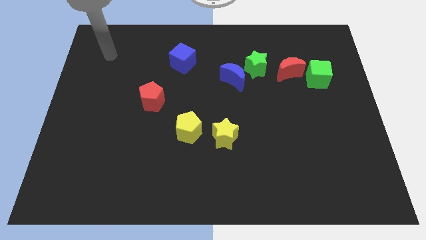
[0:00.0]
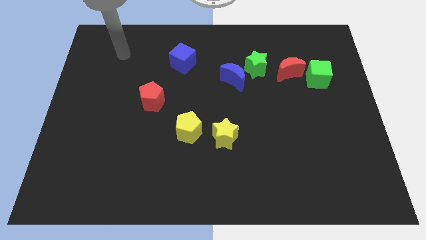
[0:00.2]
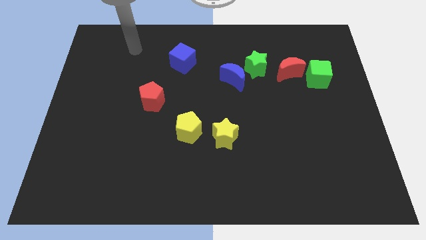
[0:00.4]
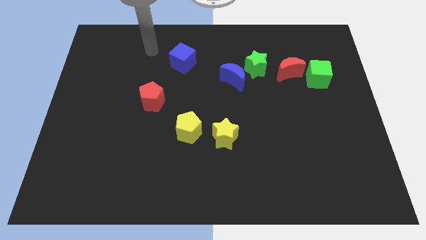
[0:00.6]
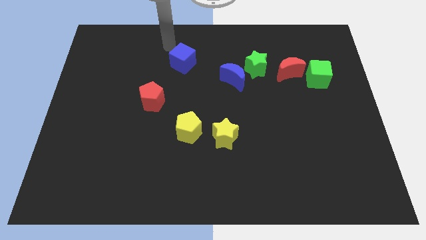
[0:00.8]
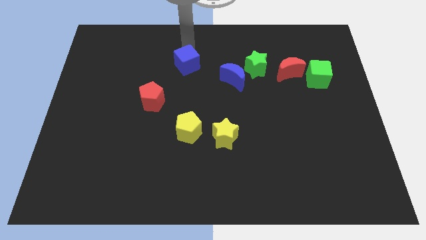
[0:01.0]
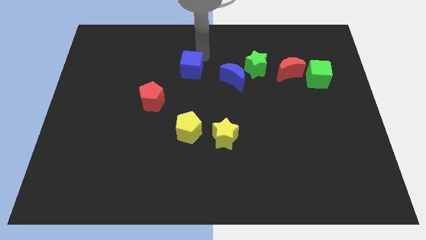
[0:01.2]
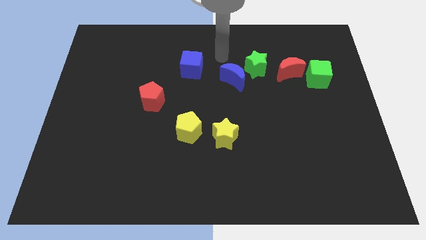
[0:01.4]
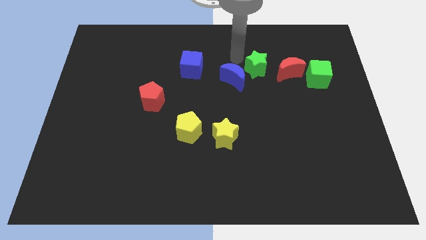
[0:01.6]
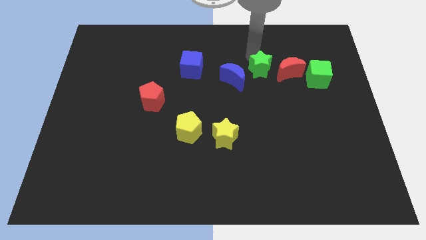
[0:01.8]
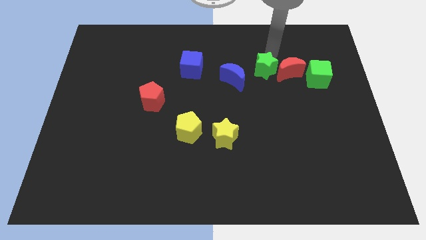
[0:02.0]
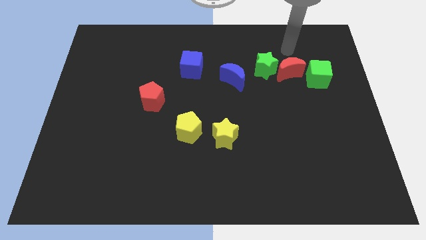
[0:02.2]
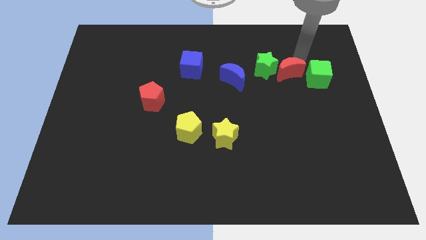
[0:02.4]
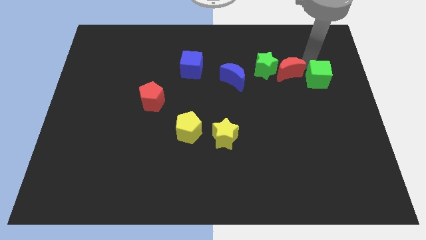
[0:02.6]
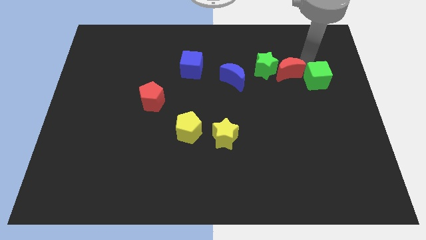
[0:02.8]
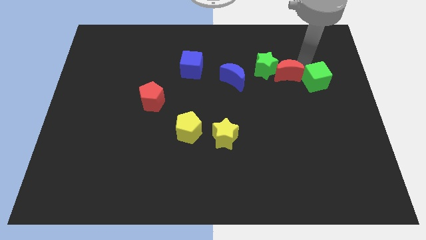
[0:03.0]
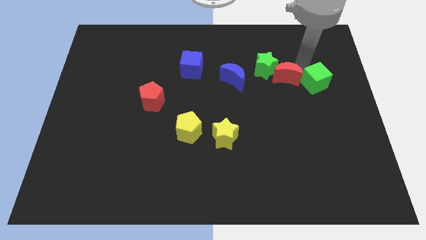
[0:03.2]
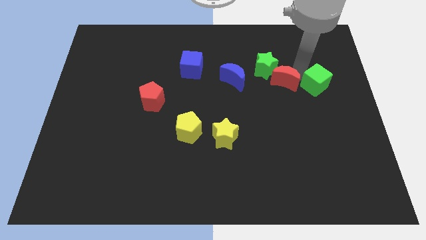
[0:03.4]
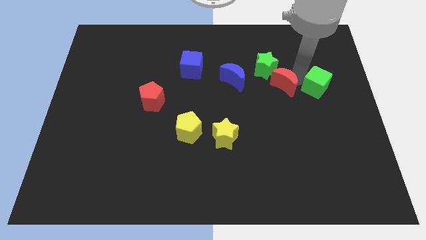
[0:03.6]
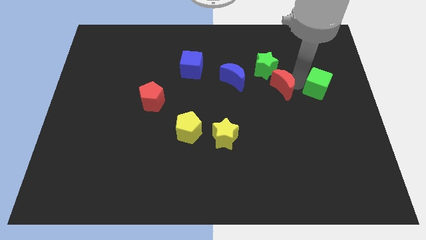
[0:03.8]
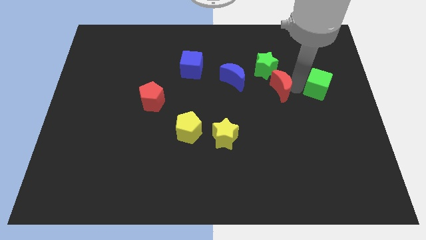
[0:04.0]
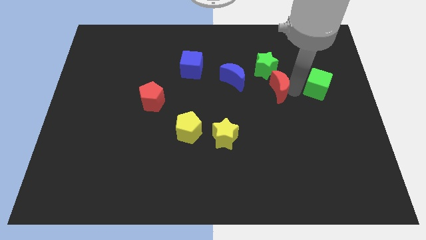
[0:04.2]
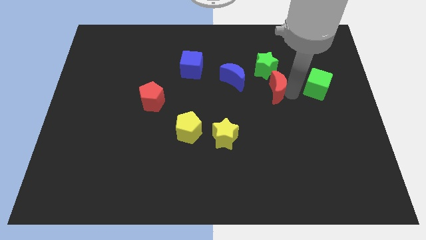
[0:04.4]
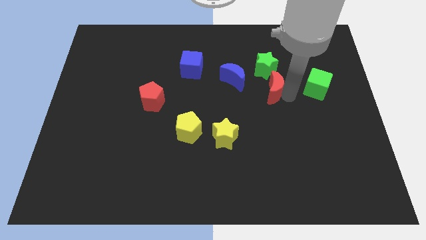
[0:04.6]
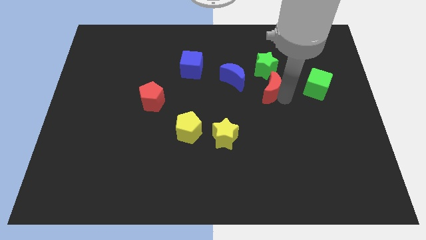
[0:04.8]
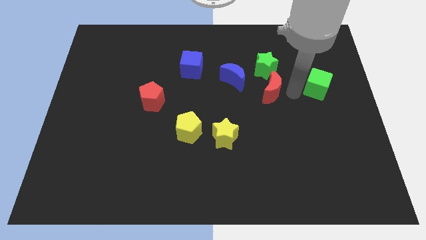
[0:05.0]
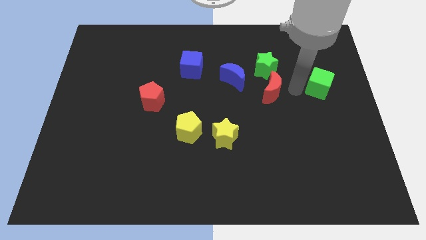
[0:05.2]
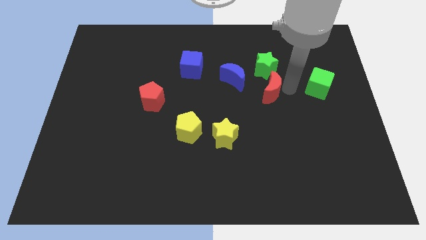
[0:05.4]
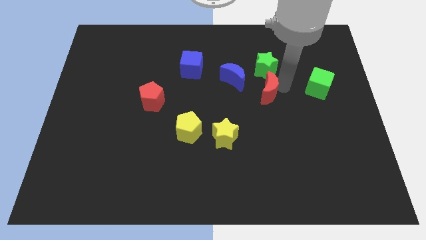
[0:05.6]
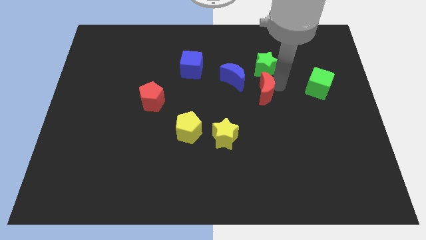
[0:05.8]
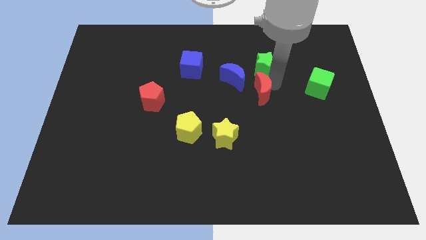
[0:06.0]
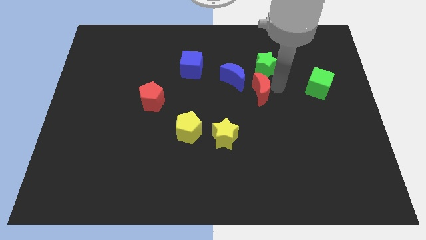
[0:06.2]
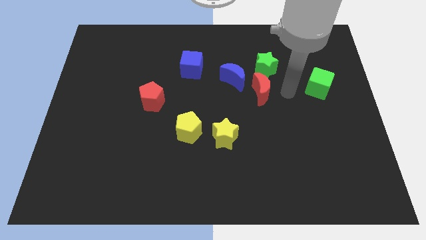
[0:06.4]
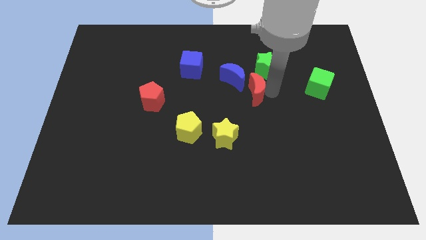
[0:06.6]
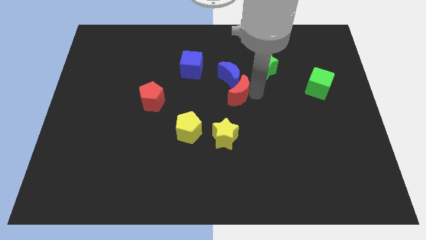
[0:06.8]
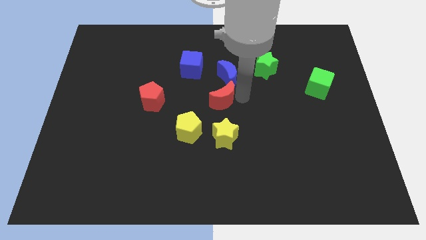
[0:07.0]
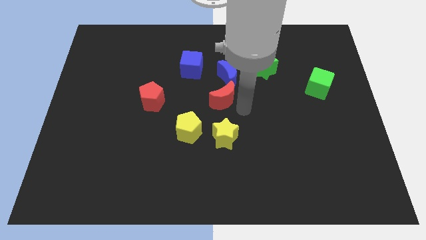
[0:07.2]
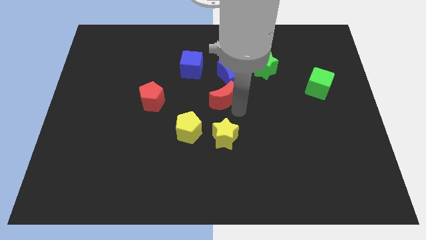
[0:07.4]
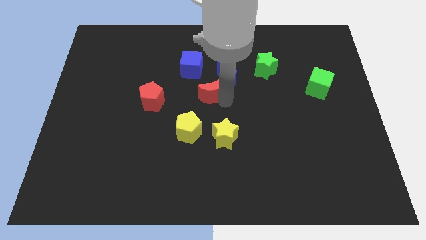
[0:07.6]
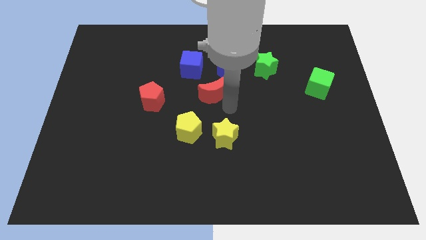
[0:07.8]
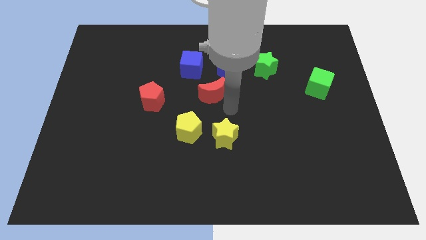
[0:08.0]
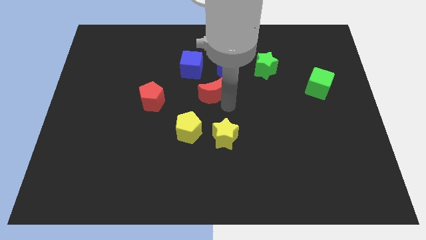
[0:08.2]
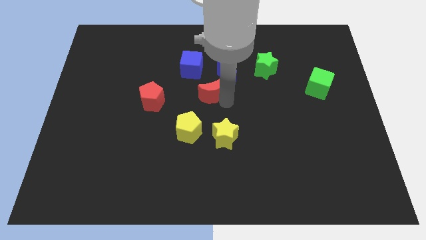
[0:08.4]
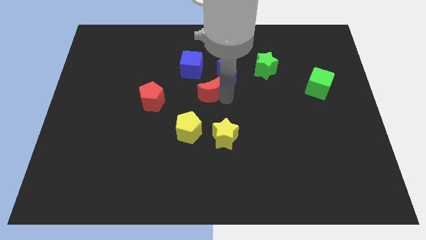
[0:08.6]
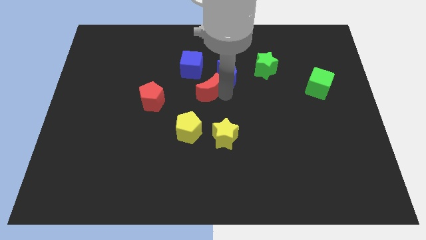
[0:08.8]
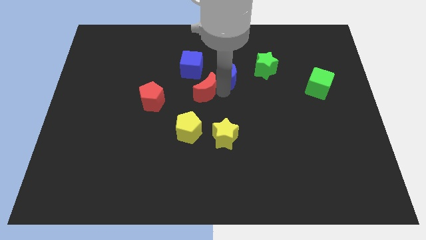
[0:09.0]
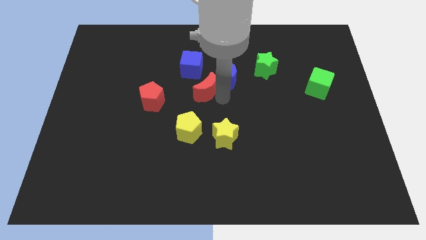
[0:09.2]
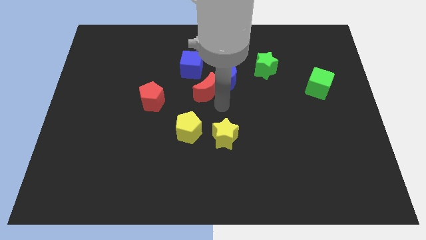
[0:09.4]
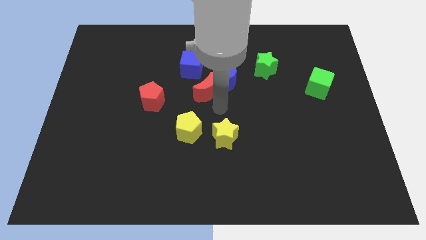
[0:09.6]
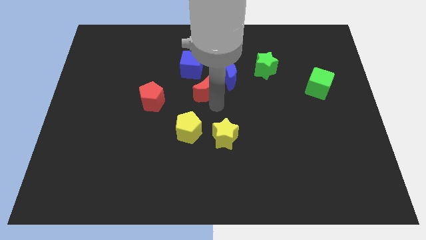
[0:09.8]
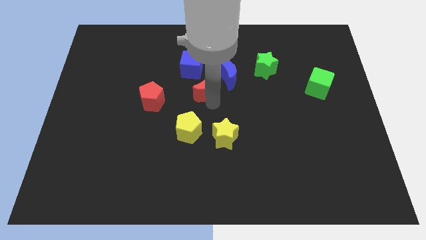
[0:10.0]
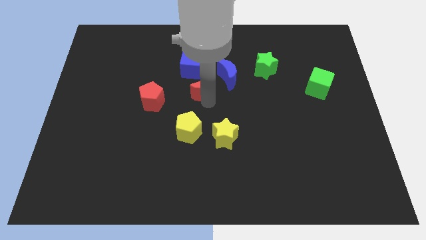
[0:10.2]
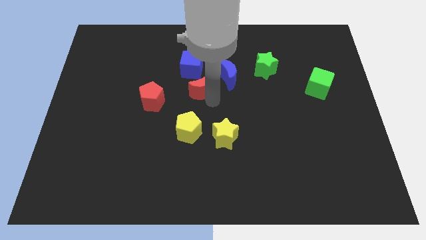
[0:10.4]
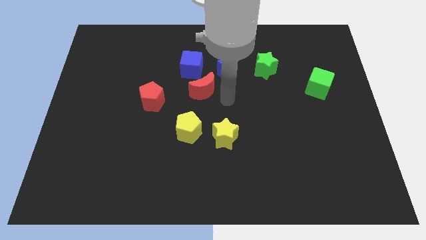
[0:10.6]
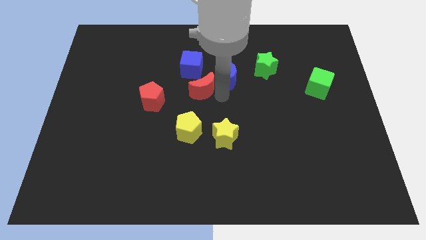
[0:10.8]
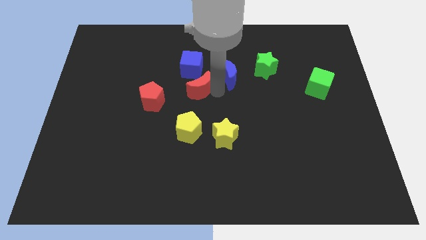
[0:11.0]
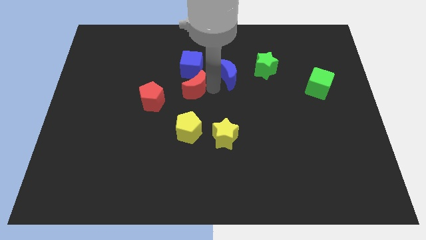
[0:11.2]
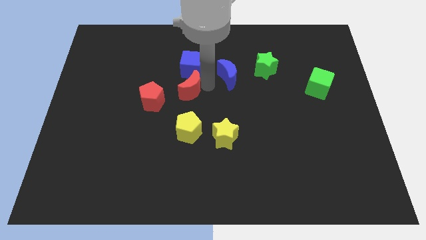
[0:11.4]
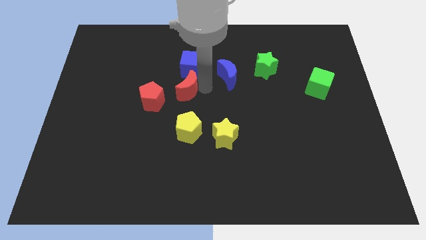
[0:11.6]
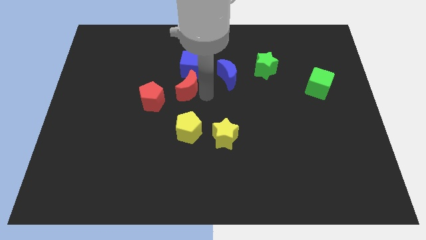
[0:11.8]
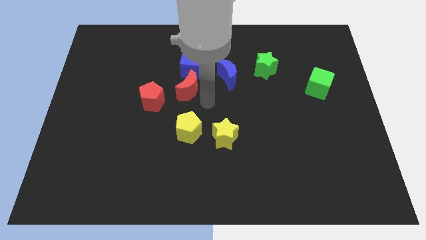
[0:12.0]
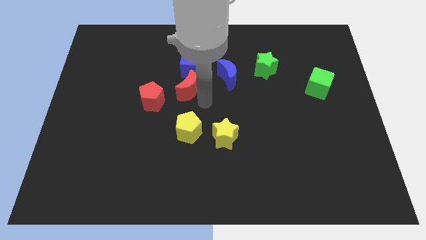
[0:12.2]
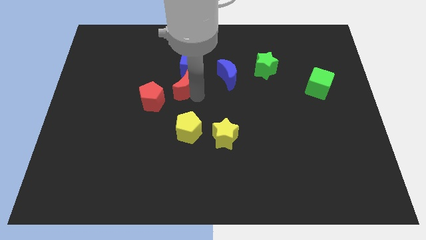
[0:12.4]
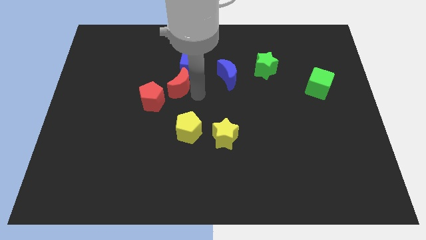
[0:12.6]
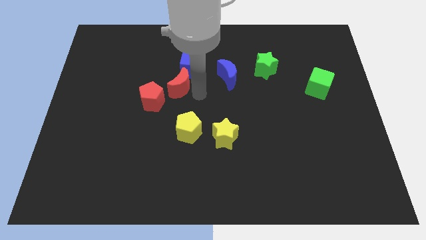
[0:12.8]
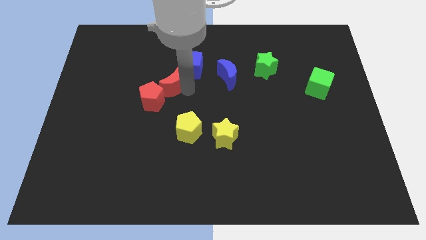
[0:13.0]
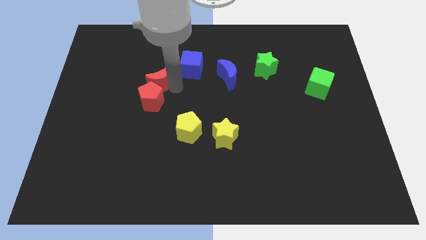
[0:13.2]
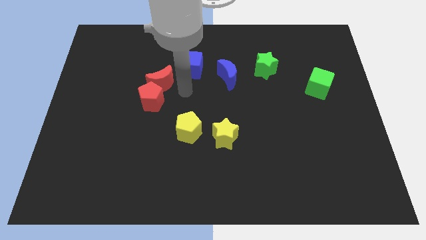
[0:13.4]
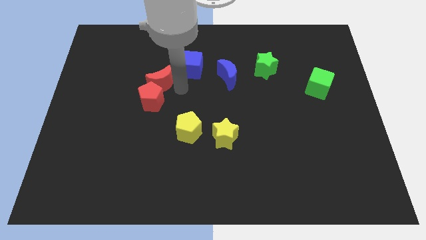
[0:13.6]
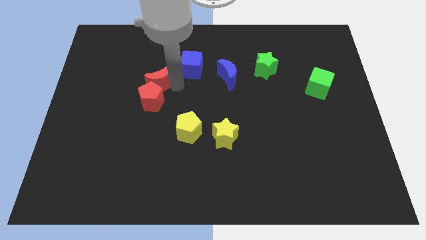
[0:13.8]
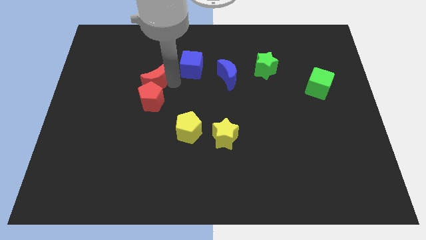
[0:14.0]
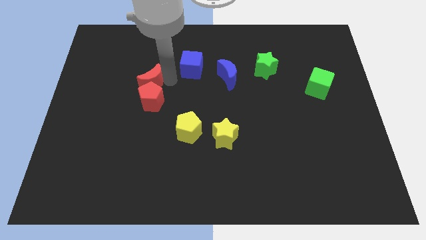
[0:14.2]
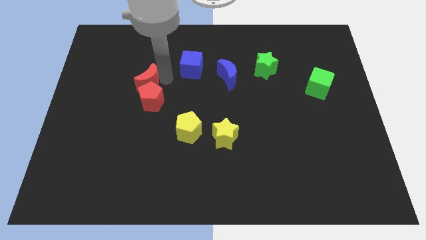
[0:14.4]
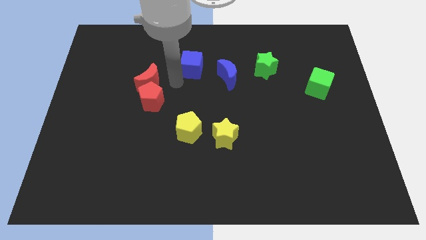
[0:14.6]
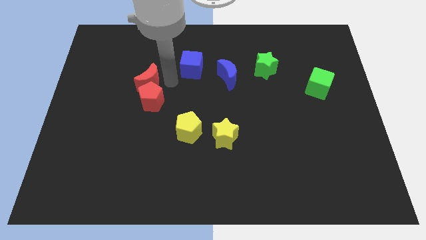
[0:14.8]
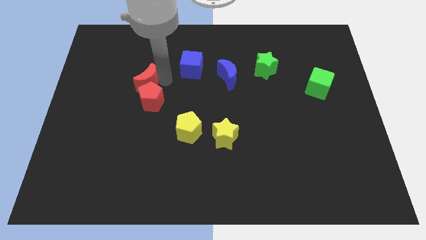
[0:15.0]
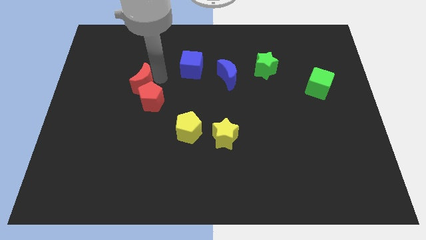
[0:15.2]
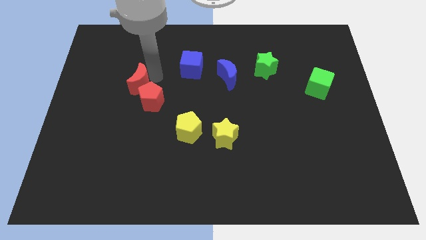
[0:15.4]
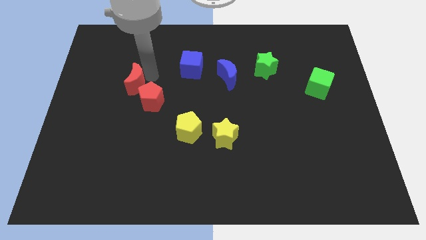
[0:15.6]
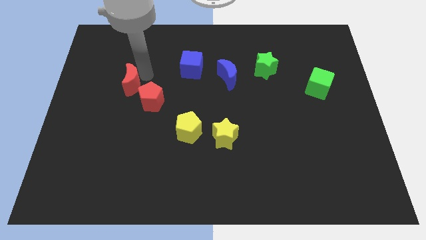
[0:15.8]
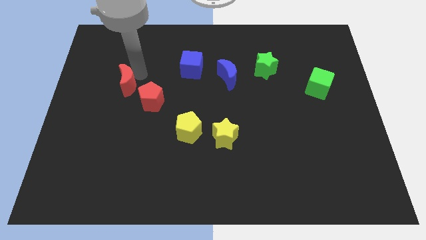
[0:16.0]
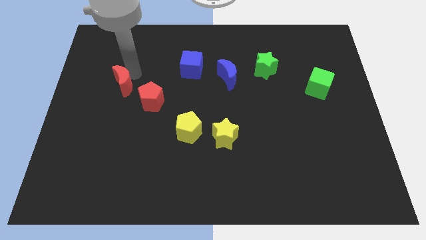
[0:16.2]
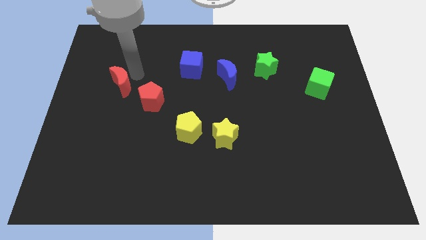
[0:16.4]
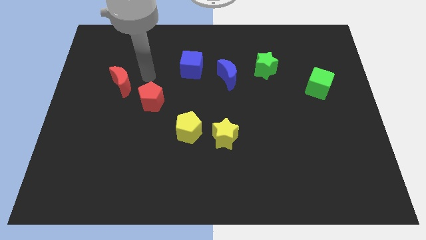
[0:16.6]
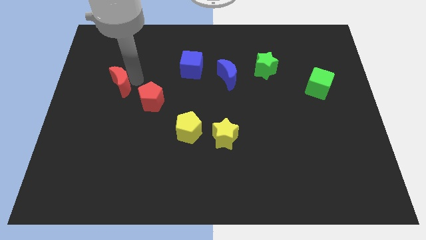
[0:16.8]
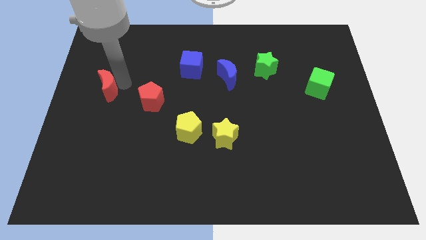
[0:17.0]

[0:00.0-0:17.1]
push the red moon to the left side
